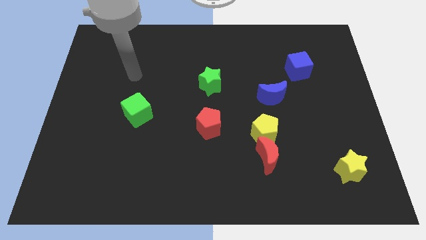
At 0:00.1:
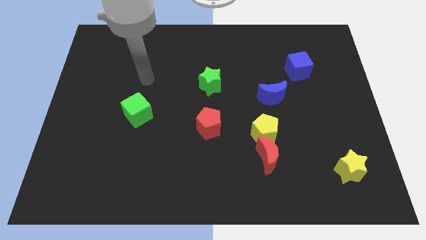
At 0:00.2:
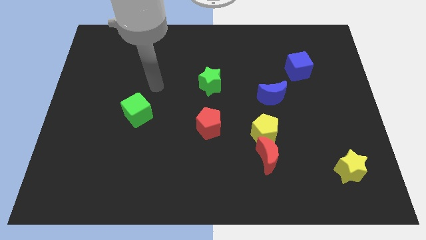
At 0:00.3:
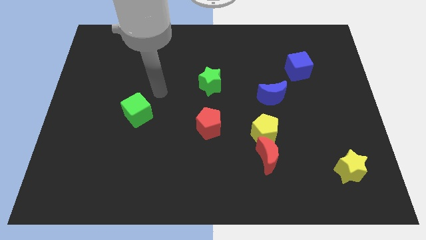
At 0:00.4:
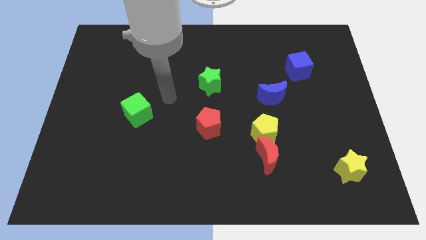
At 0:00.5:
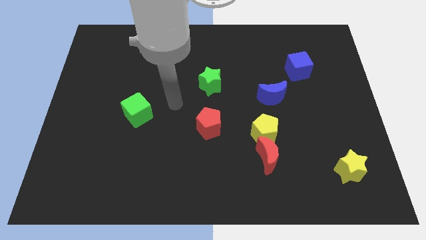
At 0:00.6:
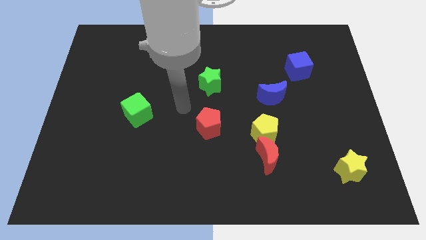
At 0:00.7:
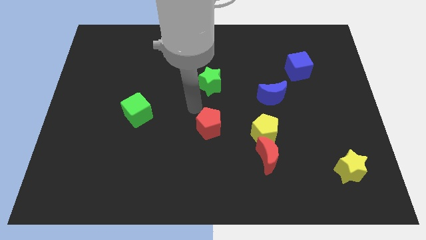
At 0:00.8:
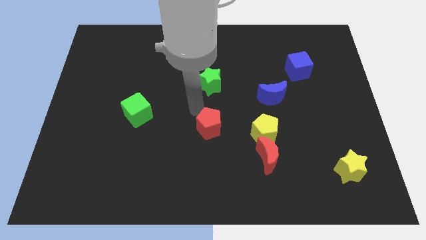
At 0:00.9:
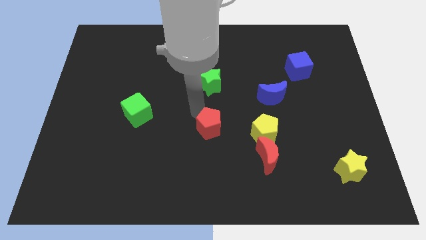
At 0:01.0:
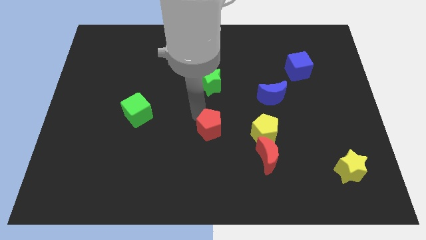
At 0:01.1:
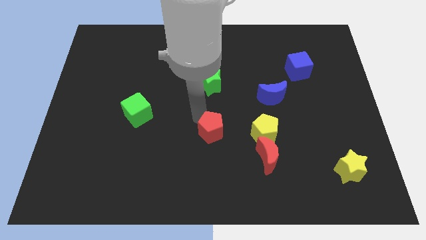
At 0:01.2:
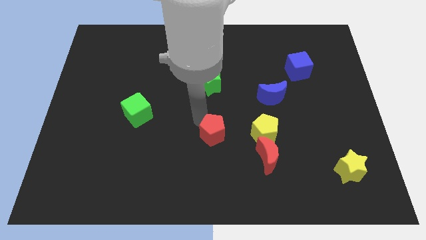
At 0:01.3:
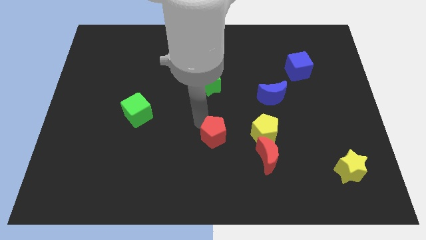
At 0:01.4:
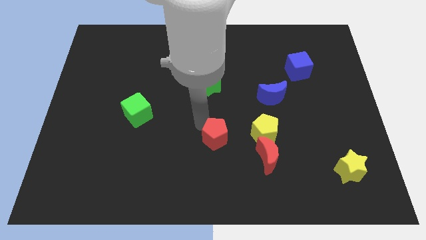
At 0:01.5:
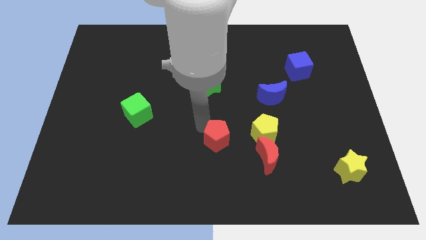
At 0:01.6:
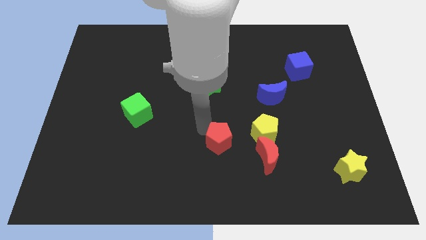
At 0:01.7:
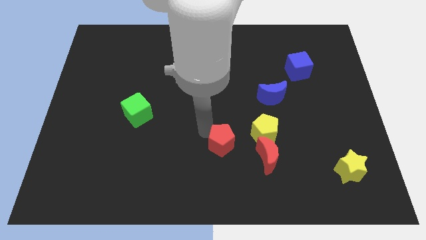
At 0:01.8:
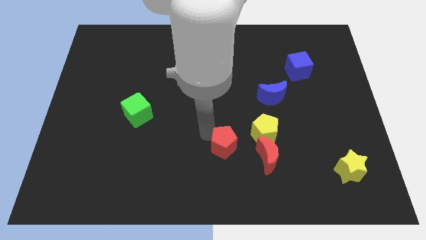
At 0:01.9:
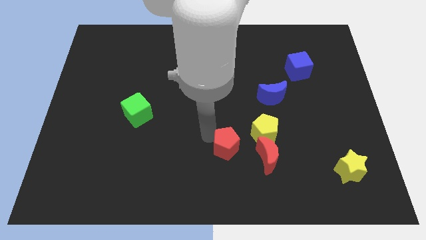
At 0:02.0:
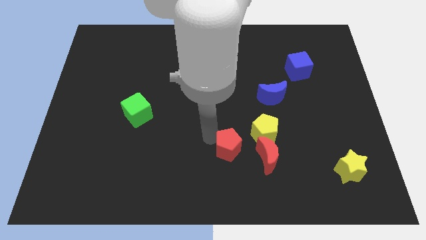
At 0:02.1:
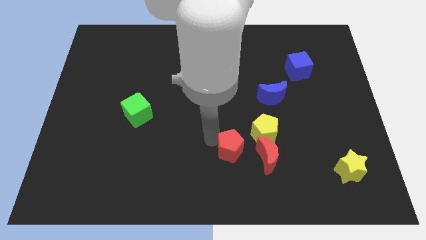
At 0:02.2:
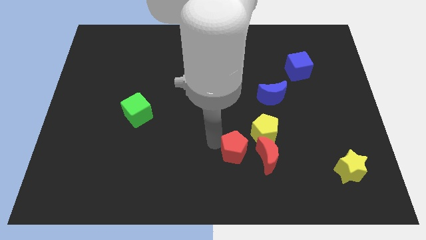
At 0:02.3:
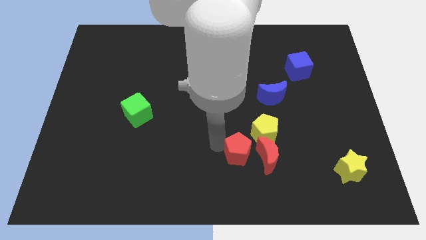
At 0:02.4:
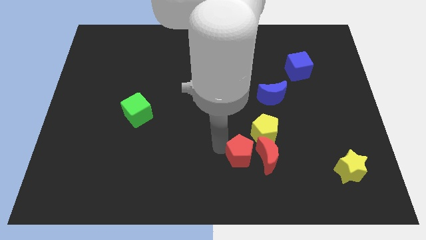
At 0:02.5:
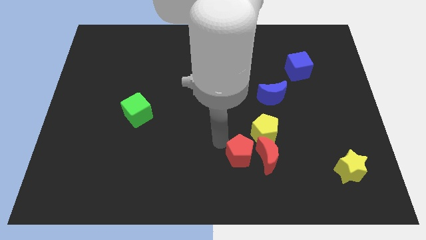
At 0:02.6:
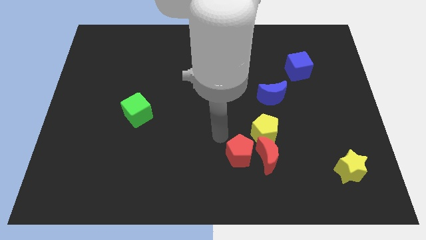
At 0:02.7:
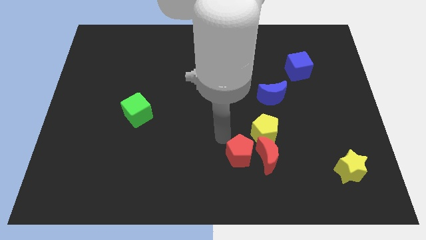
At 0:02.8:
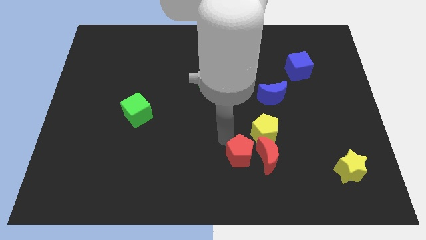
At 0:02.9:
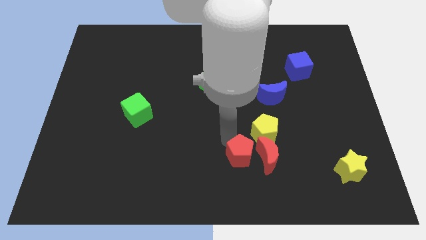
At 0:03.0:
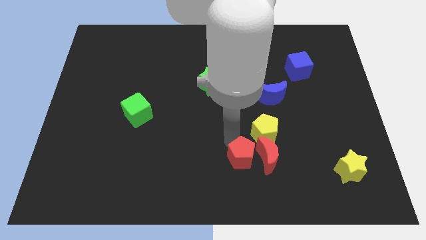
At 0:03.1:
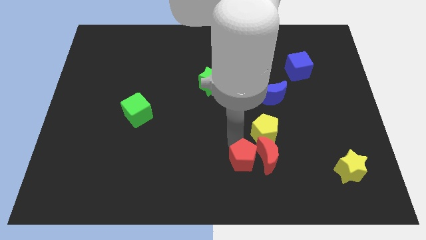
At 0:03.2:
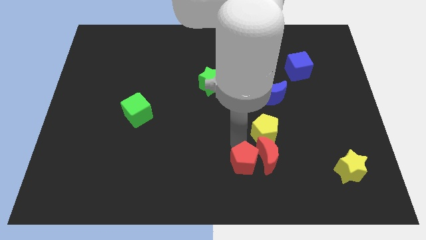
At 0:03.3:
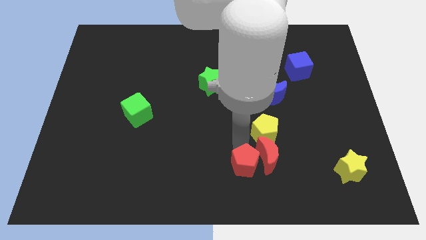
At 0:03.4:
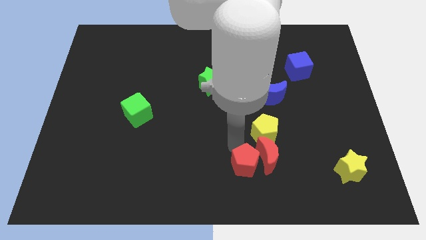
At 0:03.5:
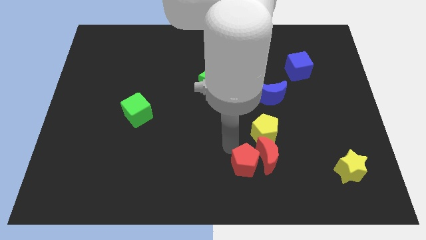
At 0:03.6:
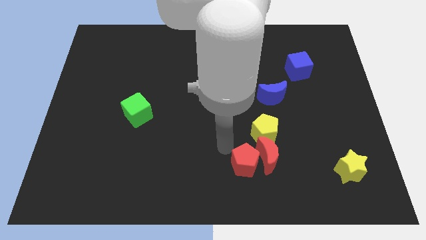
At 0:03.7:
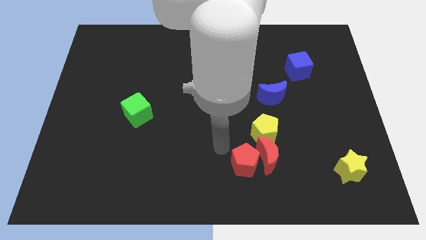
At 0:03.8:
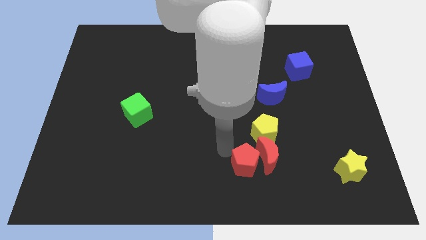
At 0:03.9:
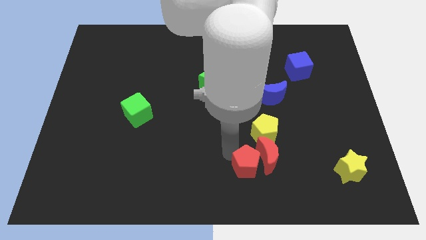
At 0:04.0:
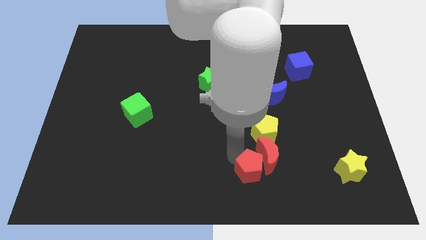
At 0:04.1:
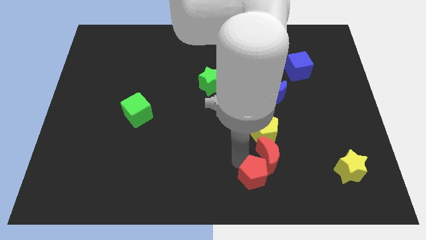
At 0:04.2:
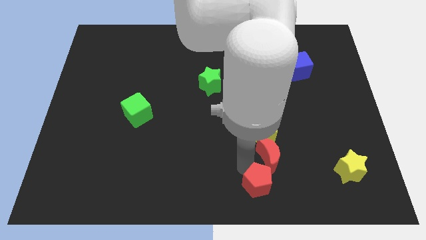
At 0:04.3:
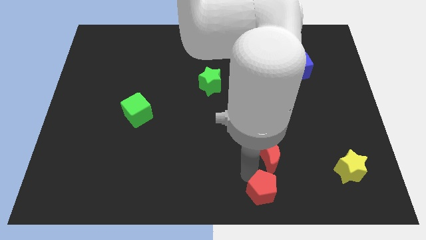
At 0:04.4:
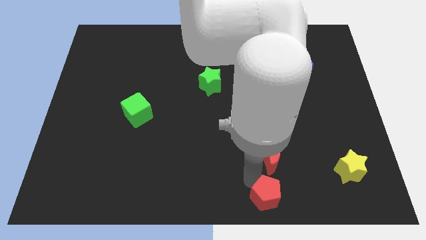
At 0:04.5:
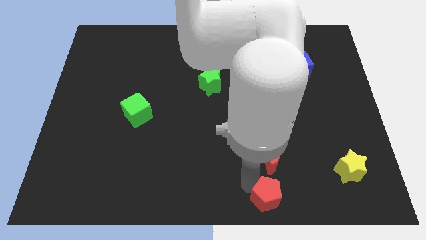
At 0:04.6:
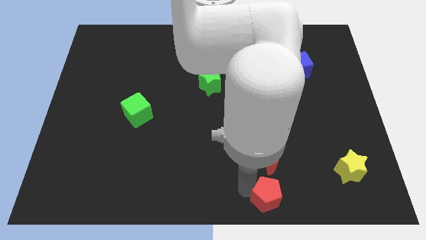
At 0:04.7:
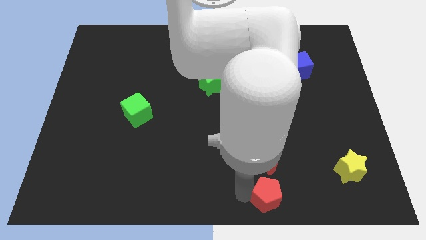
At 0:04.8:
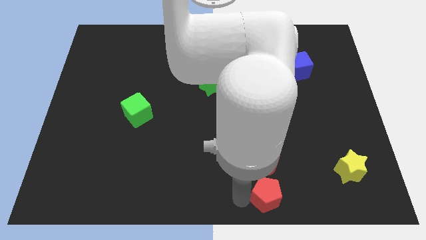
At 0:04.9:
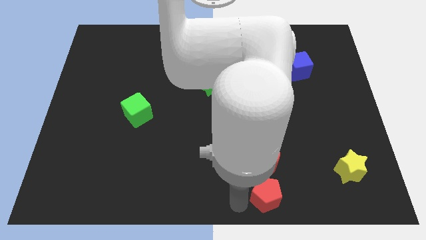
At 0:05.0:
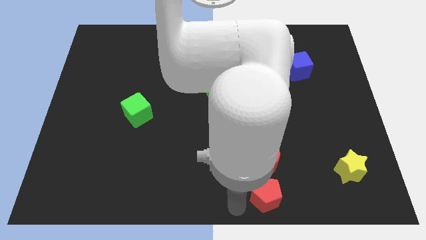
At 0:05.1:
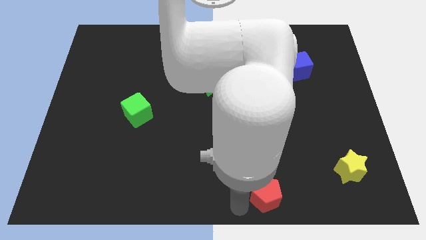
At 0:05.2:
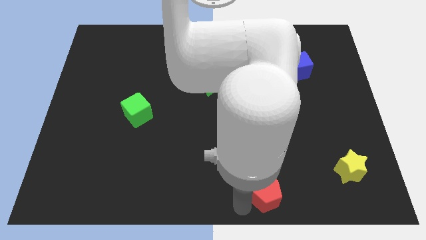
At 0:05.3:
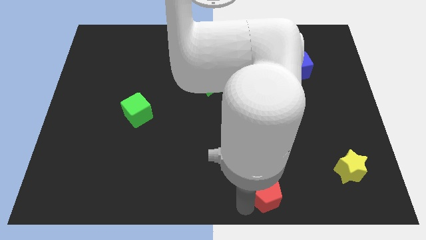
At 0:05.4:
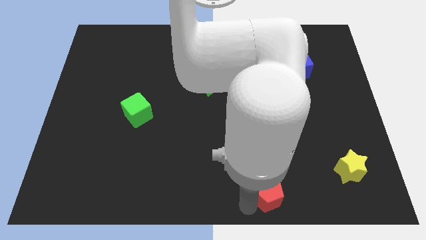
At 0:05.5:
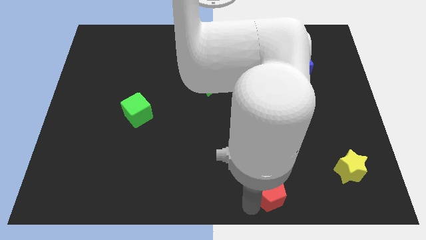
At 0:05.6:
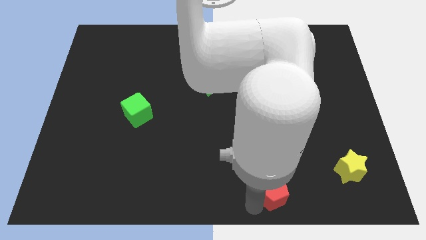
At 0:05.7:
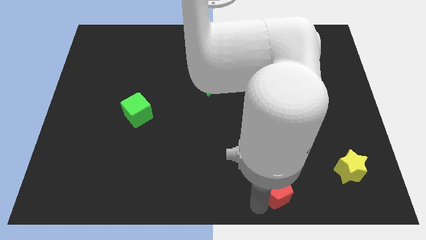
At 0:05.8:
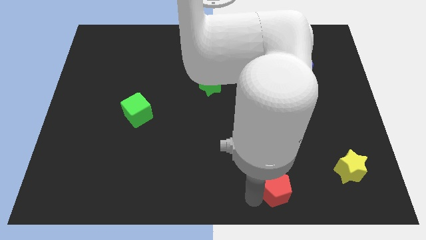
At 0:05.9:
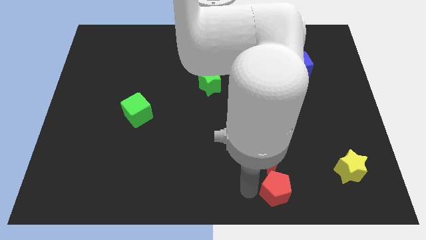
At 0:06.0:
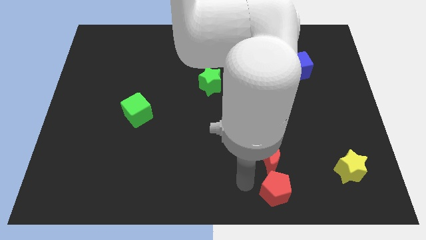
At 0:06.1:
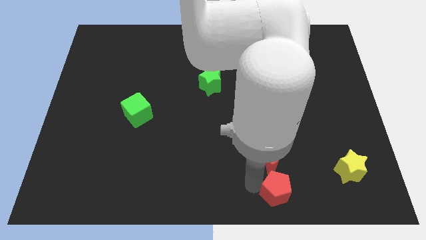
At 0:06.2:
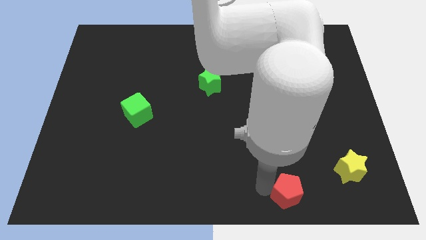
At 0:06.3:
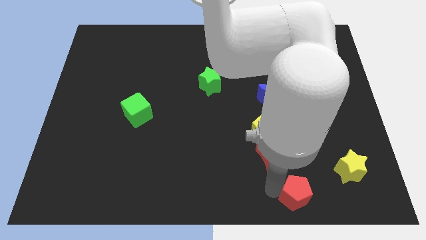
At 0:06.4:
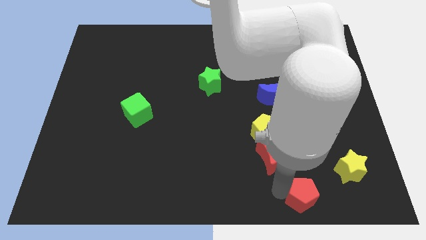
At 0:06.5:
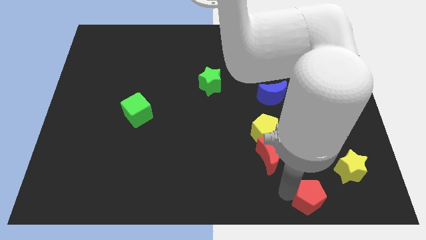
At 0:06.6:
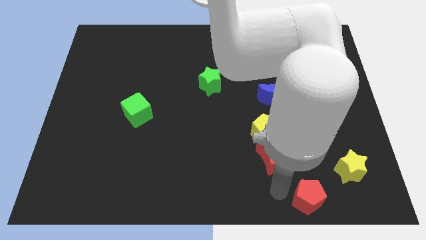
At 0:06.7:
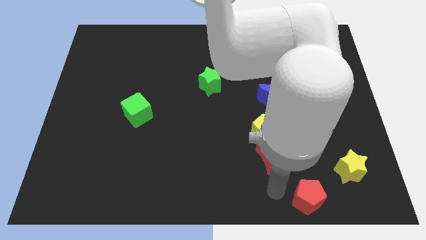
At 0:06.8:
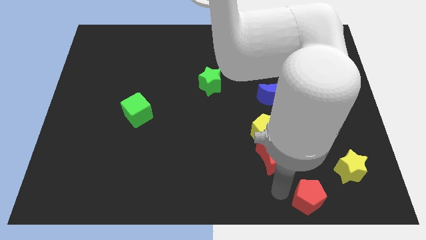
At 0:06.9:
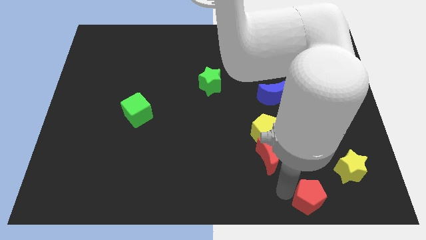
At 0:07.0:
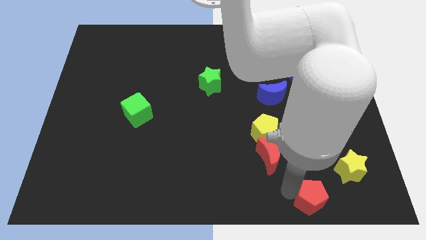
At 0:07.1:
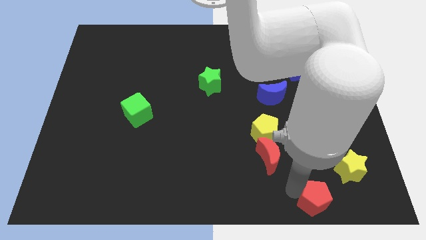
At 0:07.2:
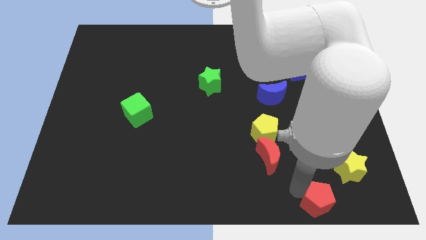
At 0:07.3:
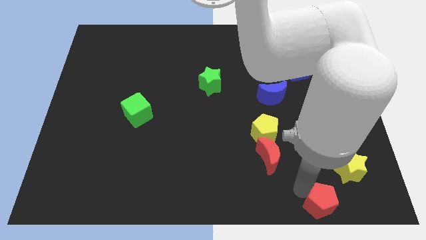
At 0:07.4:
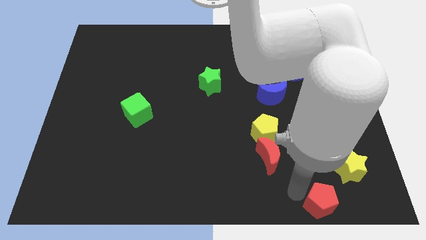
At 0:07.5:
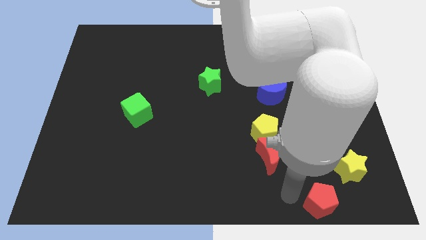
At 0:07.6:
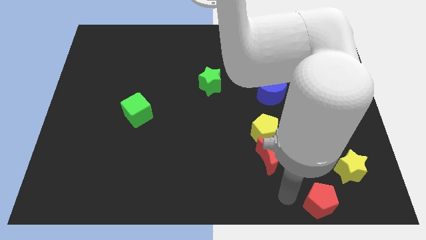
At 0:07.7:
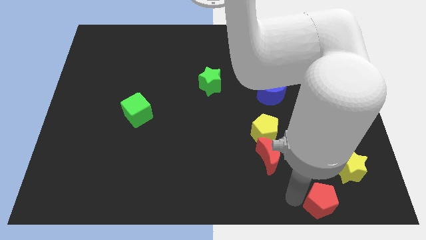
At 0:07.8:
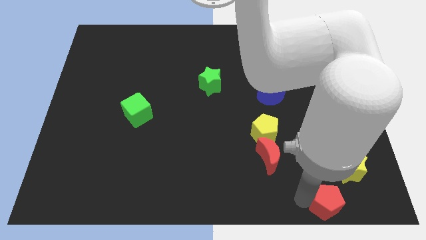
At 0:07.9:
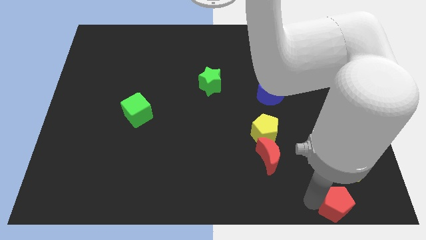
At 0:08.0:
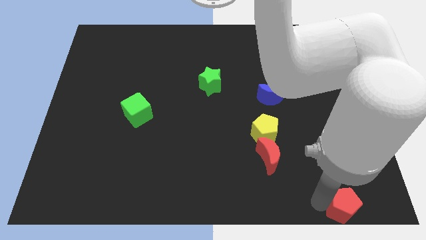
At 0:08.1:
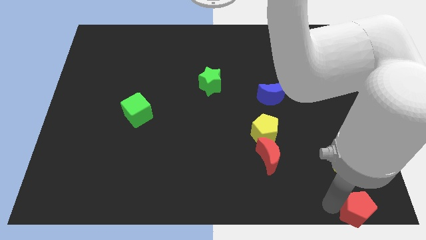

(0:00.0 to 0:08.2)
put the red pentagon to the lower right corner
